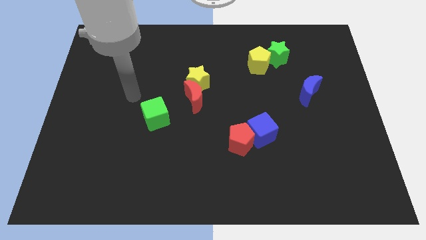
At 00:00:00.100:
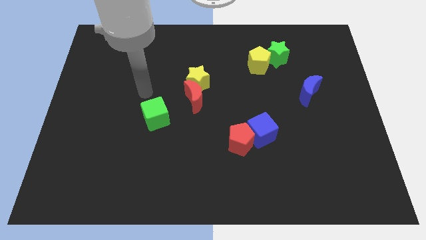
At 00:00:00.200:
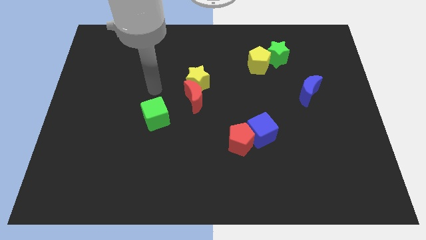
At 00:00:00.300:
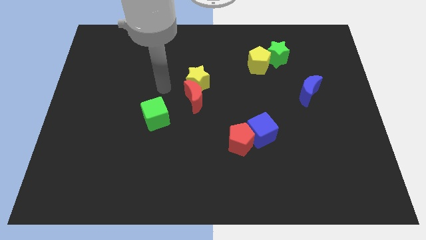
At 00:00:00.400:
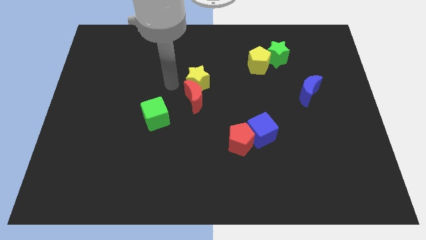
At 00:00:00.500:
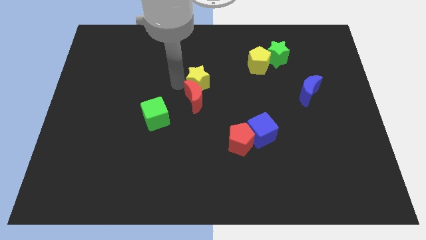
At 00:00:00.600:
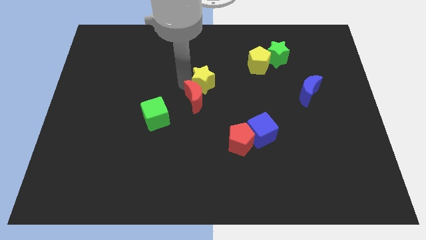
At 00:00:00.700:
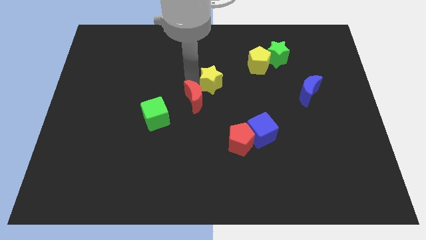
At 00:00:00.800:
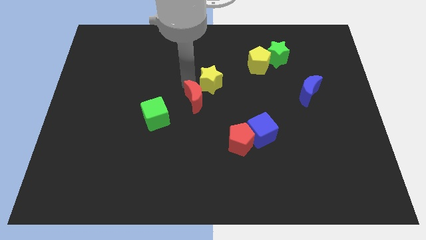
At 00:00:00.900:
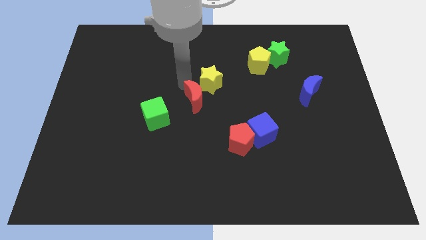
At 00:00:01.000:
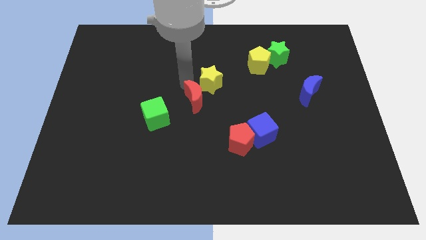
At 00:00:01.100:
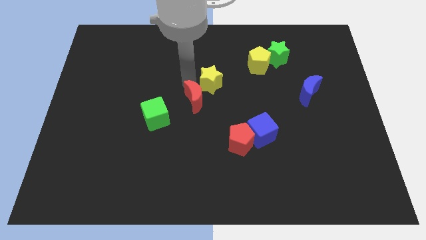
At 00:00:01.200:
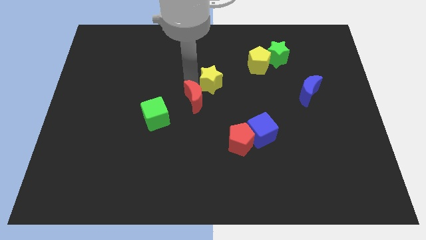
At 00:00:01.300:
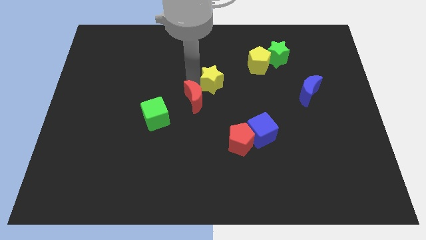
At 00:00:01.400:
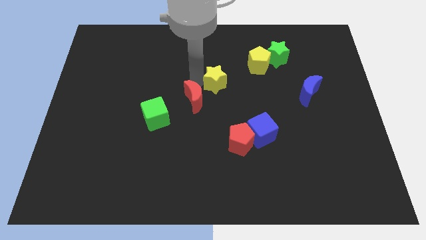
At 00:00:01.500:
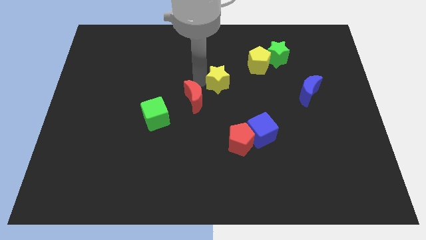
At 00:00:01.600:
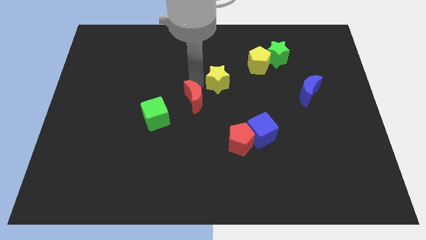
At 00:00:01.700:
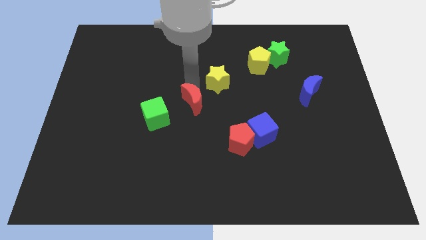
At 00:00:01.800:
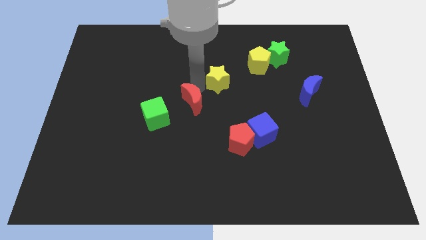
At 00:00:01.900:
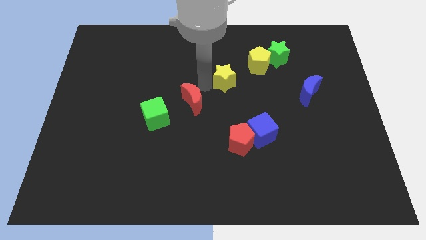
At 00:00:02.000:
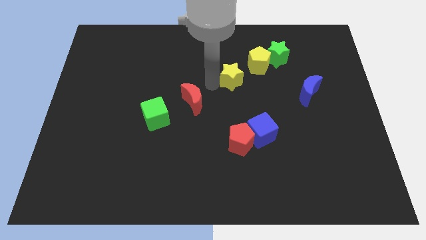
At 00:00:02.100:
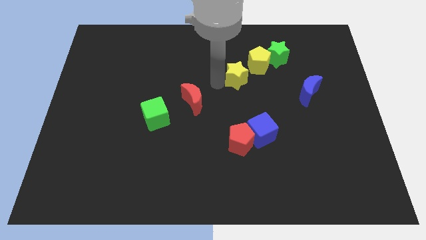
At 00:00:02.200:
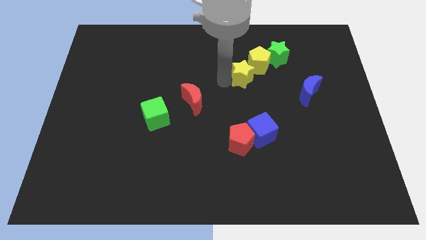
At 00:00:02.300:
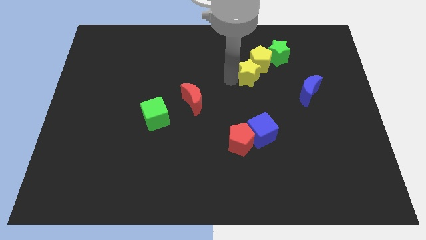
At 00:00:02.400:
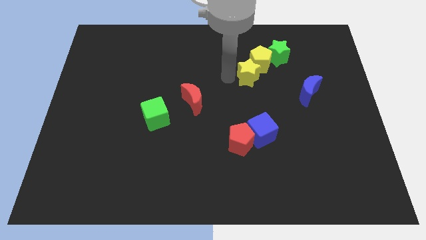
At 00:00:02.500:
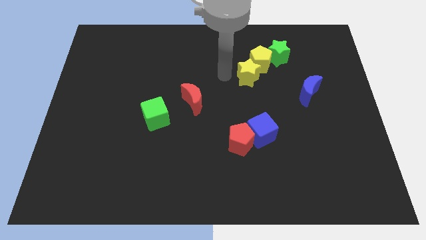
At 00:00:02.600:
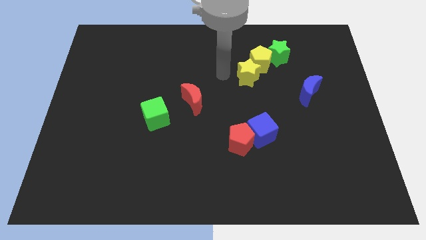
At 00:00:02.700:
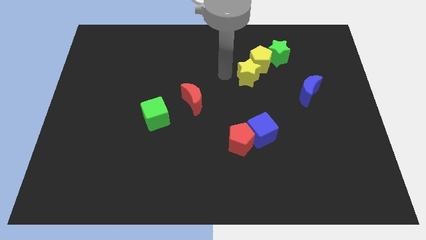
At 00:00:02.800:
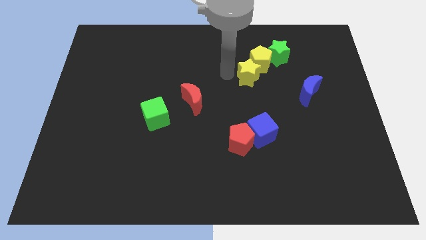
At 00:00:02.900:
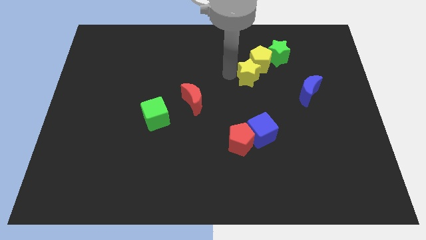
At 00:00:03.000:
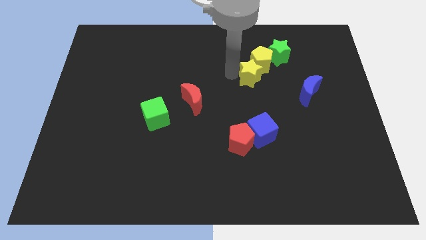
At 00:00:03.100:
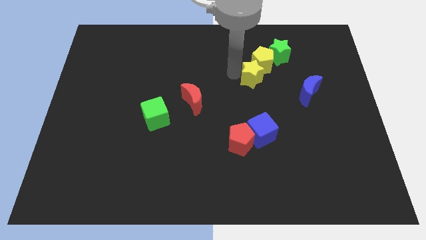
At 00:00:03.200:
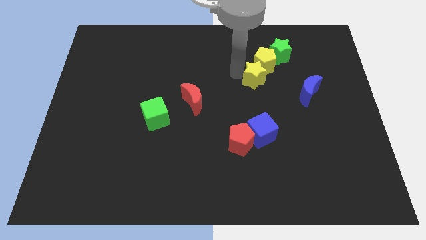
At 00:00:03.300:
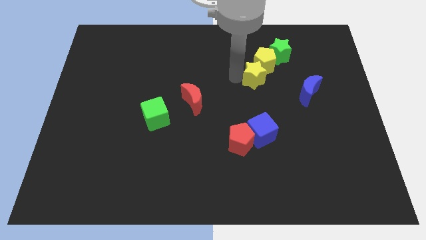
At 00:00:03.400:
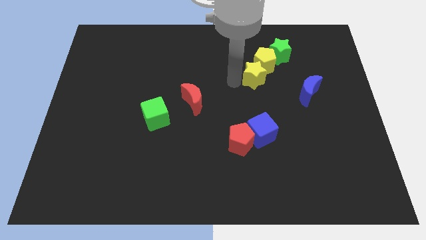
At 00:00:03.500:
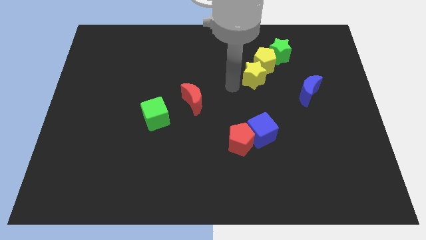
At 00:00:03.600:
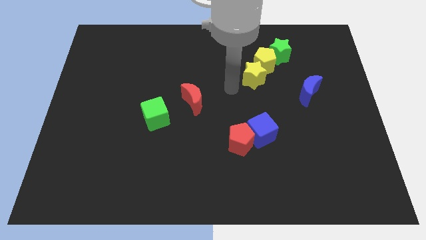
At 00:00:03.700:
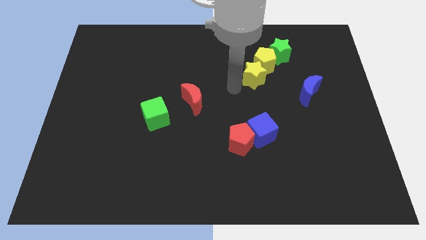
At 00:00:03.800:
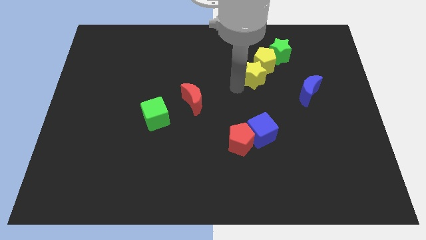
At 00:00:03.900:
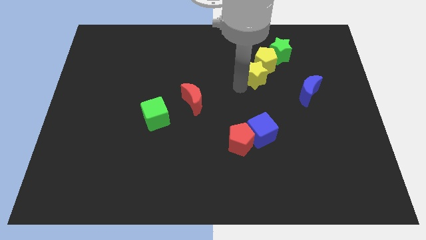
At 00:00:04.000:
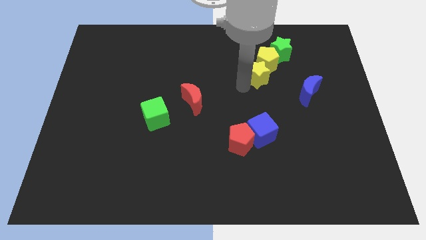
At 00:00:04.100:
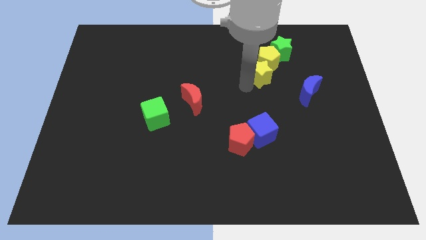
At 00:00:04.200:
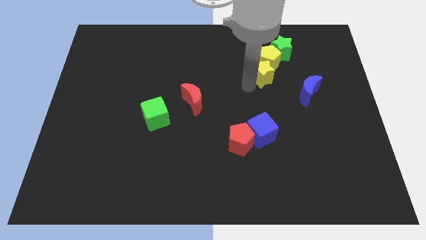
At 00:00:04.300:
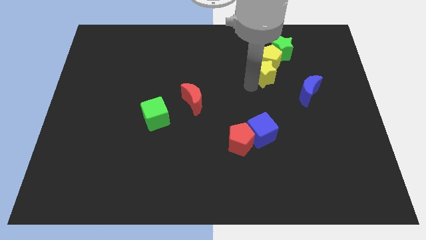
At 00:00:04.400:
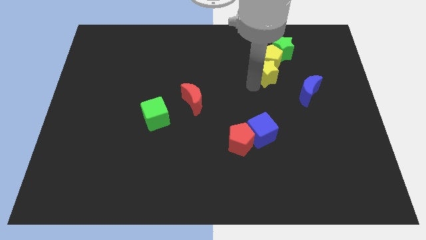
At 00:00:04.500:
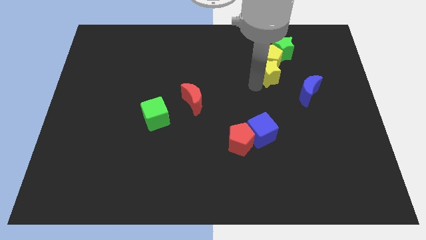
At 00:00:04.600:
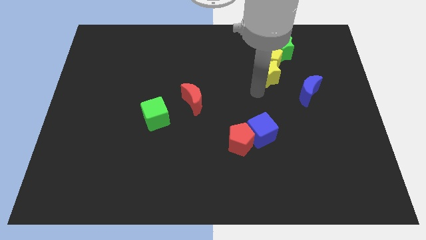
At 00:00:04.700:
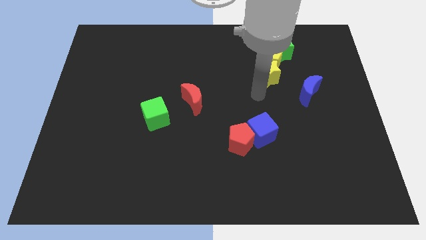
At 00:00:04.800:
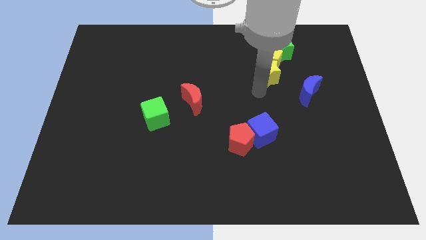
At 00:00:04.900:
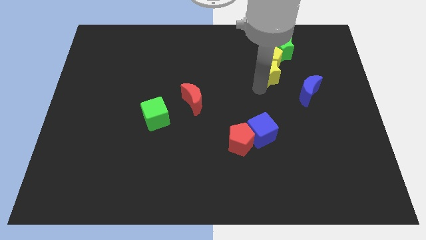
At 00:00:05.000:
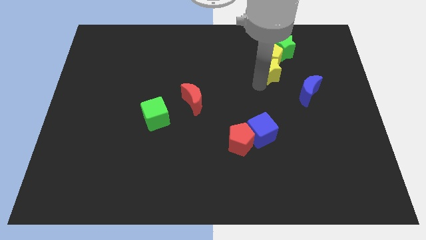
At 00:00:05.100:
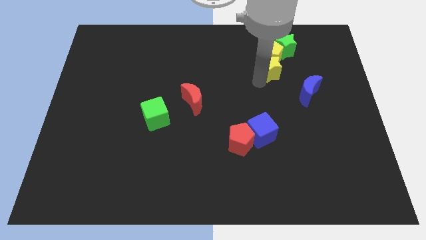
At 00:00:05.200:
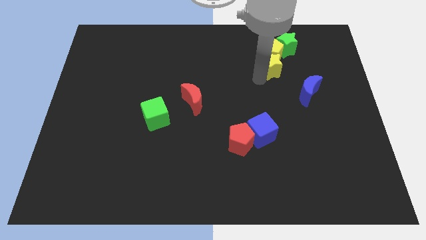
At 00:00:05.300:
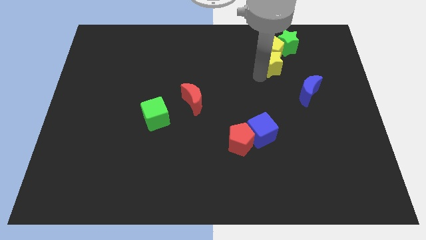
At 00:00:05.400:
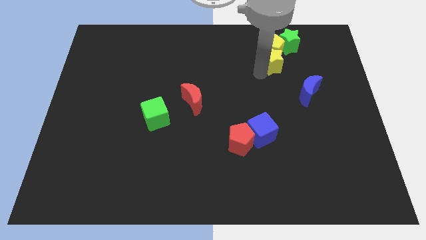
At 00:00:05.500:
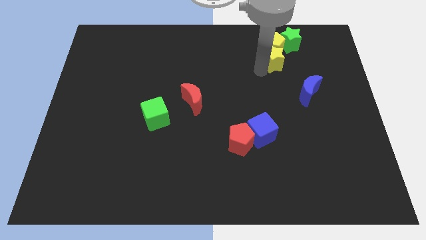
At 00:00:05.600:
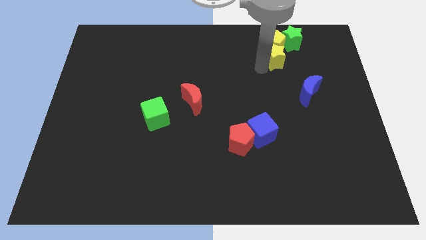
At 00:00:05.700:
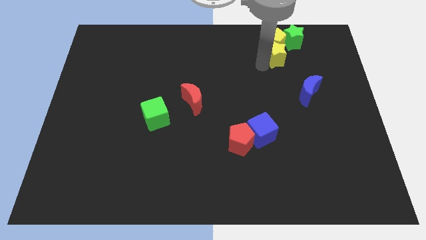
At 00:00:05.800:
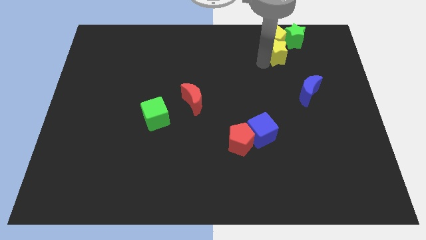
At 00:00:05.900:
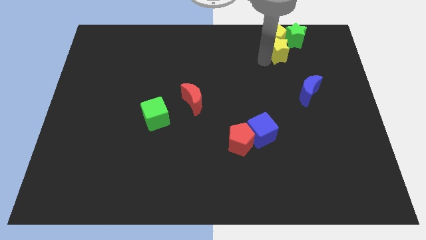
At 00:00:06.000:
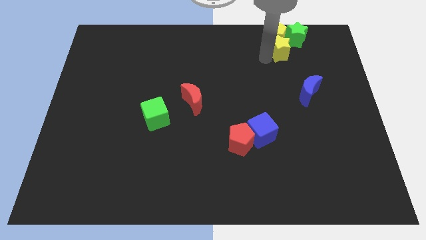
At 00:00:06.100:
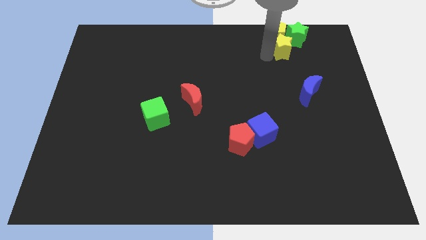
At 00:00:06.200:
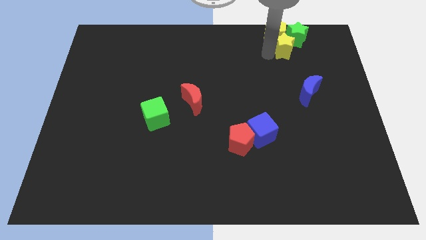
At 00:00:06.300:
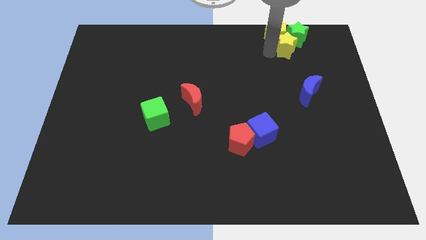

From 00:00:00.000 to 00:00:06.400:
push the yellow star towards the green star

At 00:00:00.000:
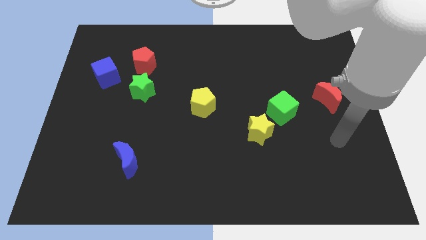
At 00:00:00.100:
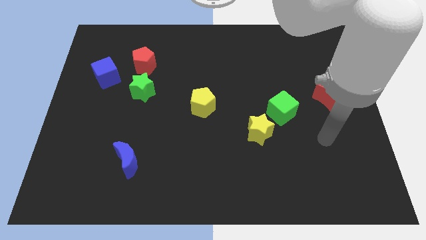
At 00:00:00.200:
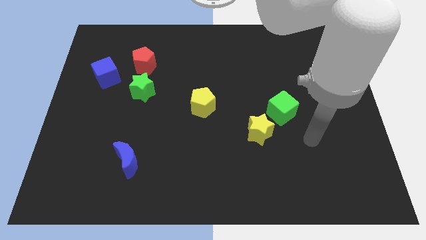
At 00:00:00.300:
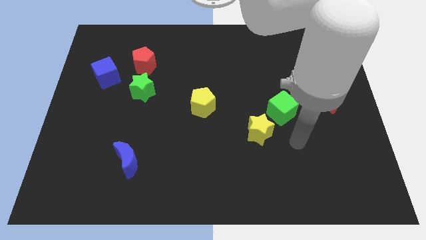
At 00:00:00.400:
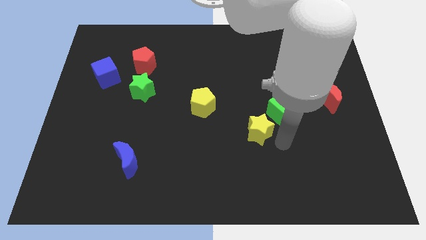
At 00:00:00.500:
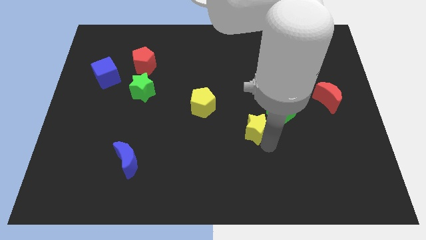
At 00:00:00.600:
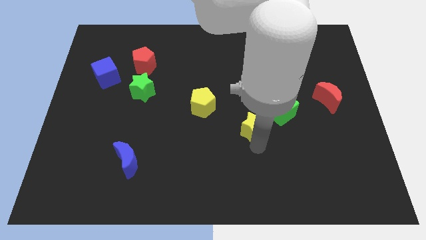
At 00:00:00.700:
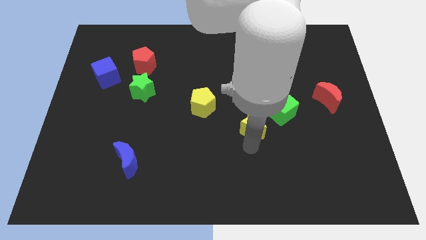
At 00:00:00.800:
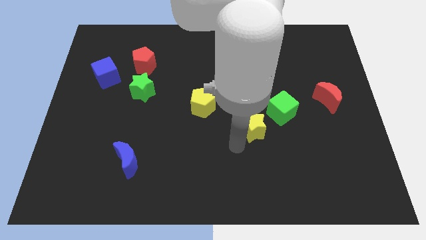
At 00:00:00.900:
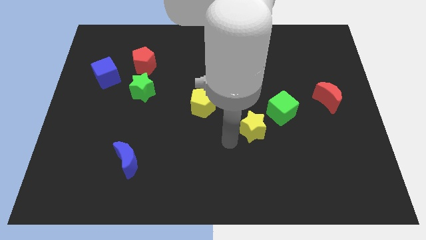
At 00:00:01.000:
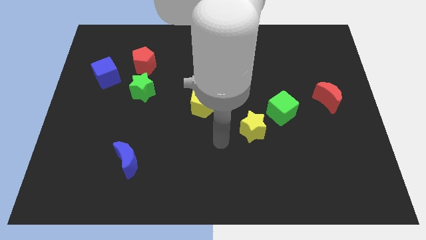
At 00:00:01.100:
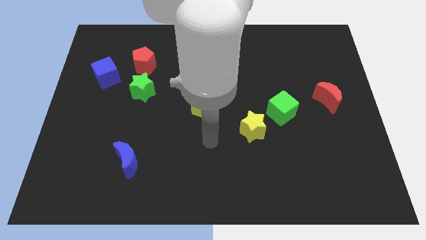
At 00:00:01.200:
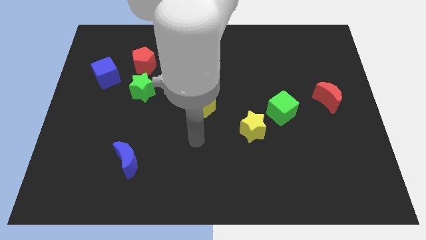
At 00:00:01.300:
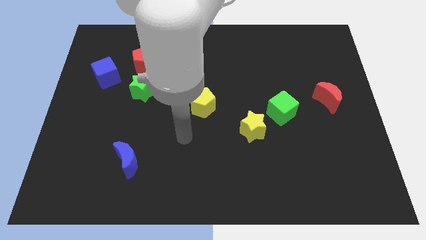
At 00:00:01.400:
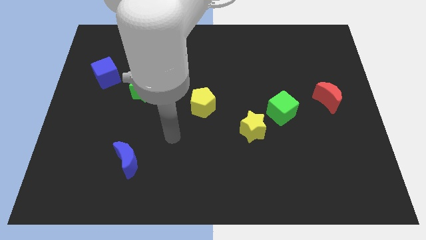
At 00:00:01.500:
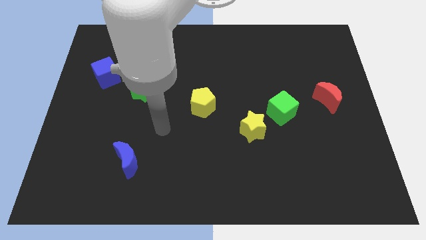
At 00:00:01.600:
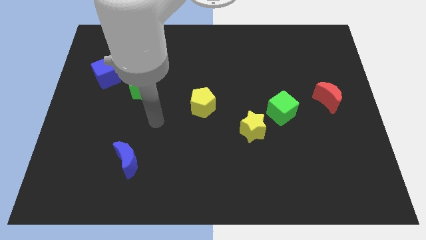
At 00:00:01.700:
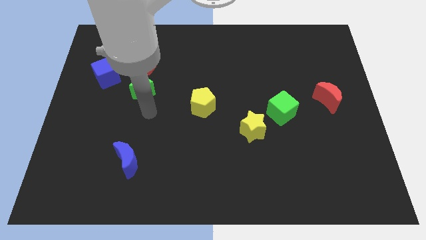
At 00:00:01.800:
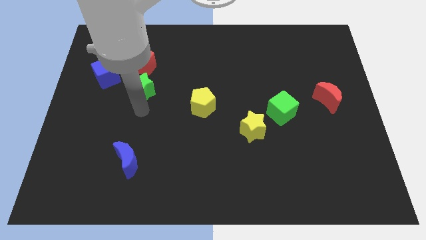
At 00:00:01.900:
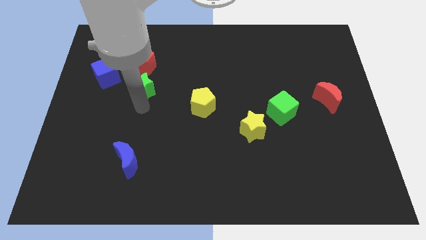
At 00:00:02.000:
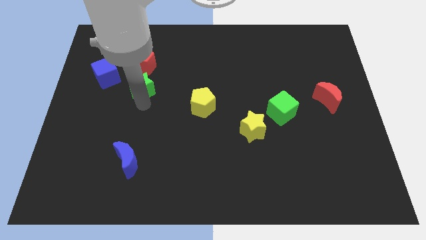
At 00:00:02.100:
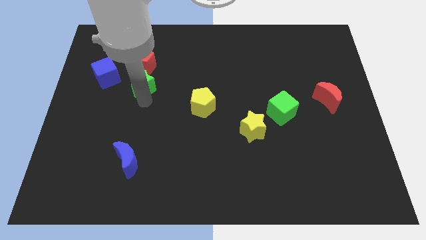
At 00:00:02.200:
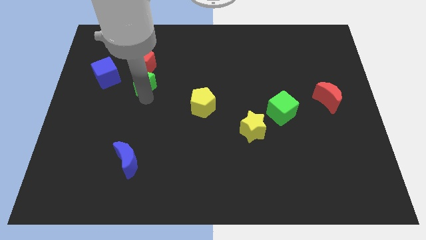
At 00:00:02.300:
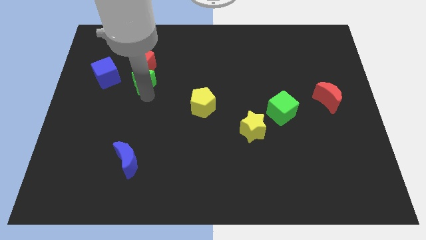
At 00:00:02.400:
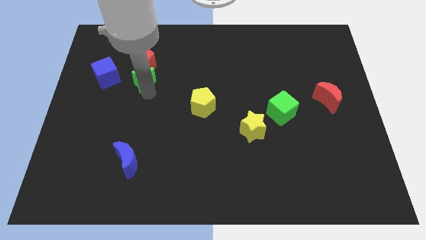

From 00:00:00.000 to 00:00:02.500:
move the green star next to the red pentagon
